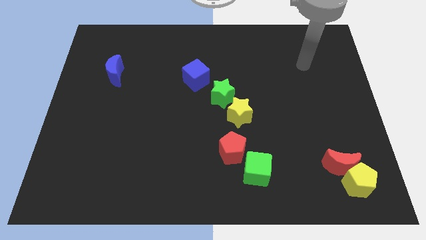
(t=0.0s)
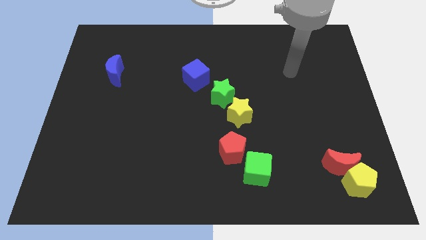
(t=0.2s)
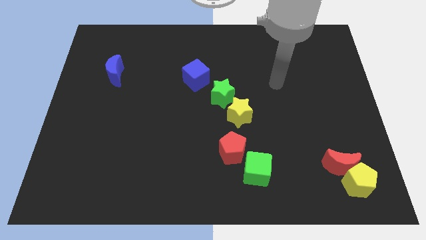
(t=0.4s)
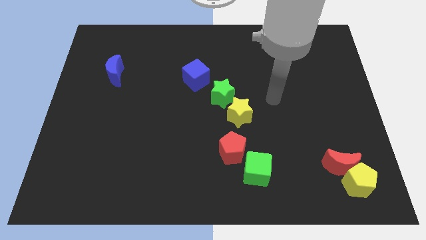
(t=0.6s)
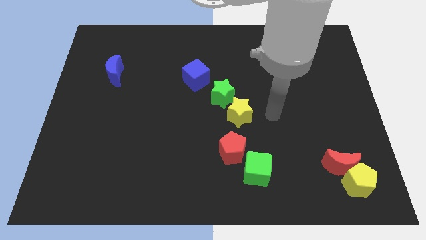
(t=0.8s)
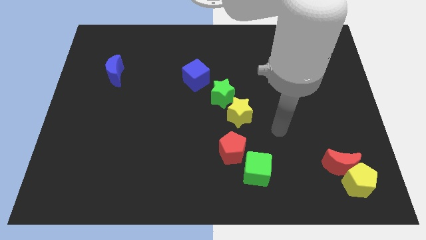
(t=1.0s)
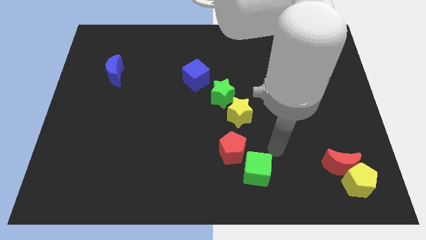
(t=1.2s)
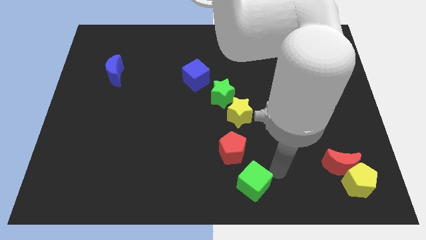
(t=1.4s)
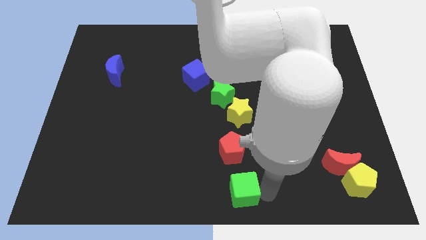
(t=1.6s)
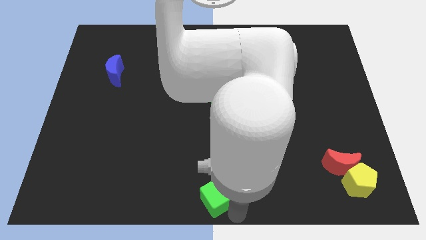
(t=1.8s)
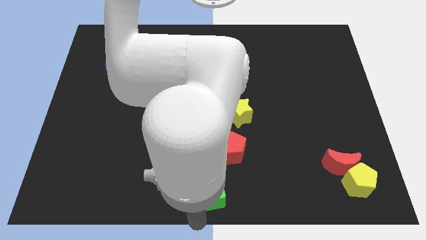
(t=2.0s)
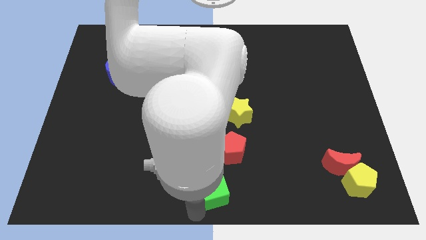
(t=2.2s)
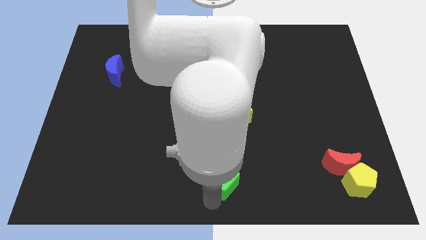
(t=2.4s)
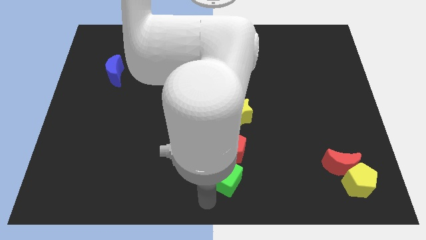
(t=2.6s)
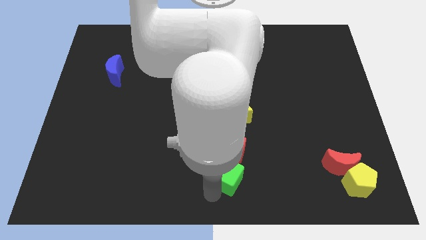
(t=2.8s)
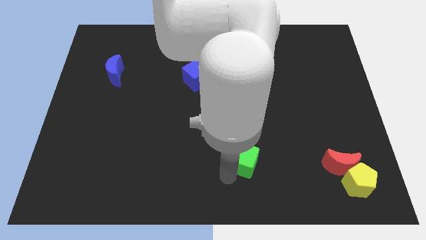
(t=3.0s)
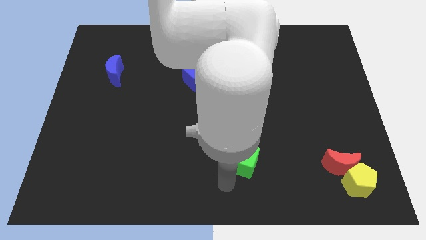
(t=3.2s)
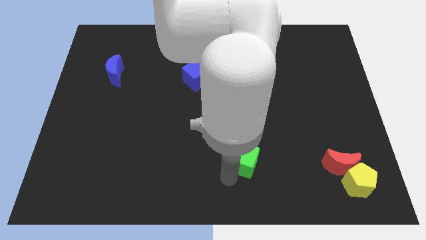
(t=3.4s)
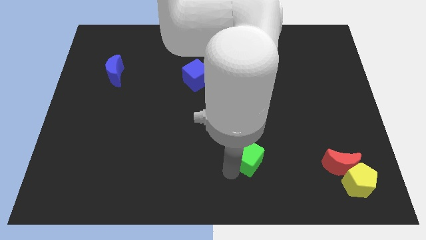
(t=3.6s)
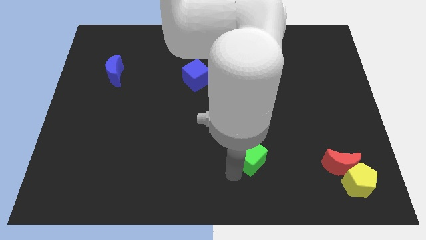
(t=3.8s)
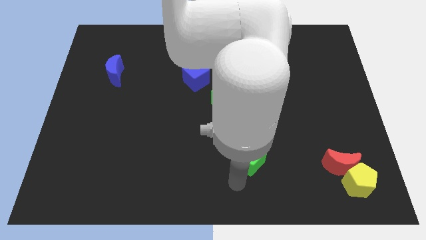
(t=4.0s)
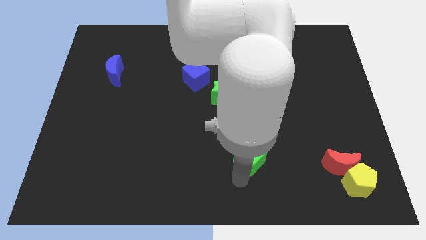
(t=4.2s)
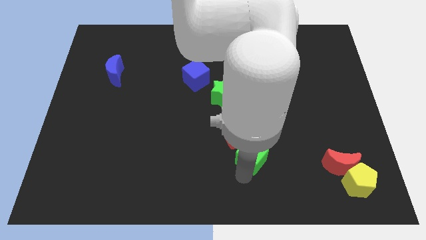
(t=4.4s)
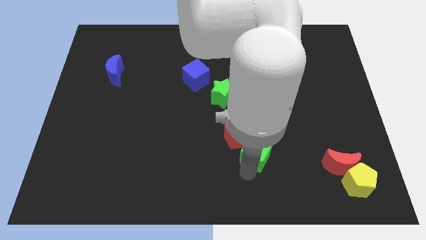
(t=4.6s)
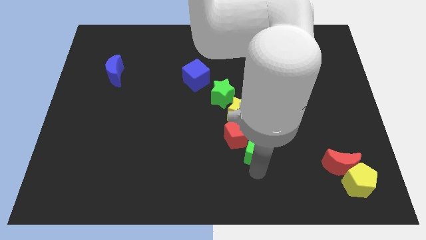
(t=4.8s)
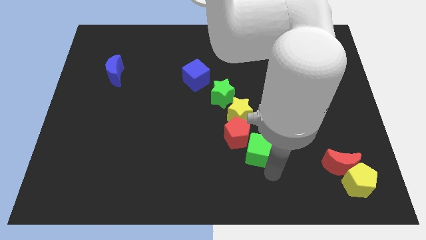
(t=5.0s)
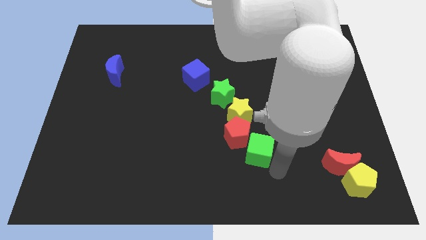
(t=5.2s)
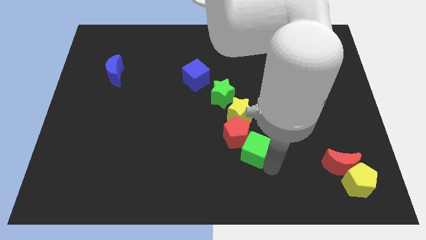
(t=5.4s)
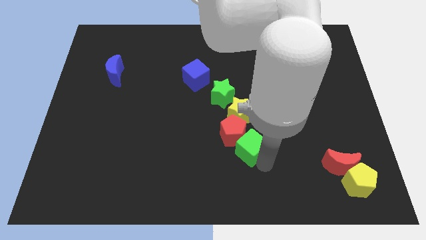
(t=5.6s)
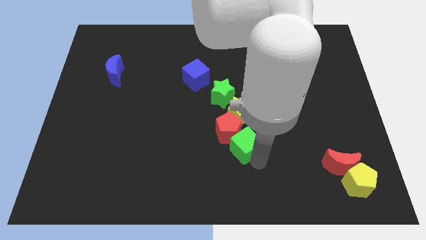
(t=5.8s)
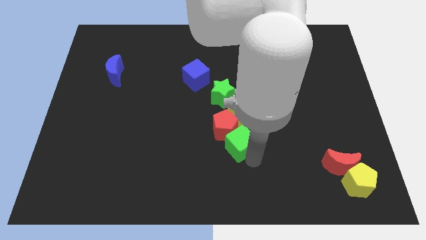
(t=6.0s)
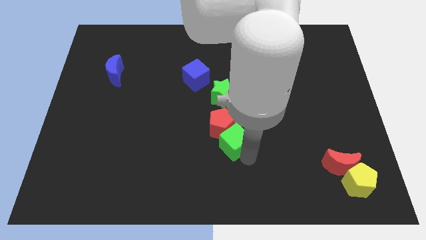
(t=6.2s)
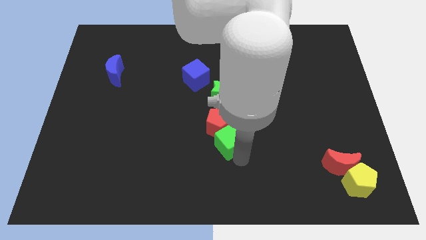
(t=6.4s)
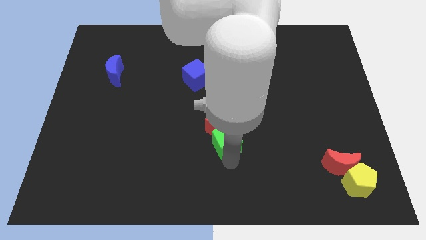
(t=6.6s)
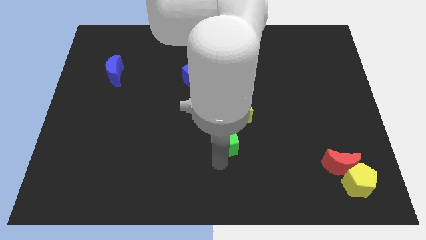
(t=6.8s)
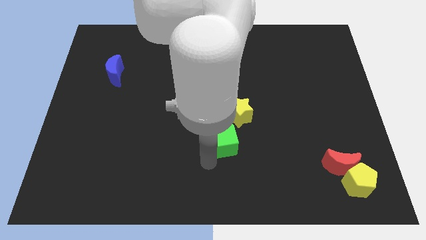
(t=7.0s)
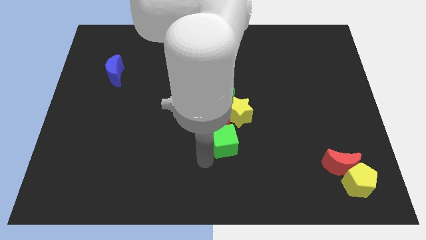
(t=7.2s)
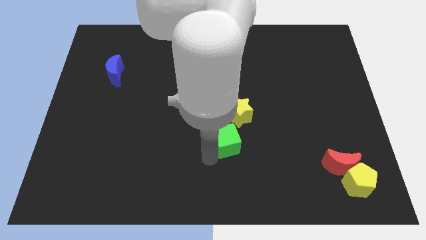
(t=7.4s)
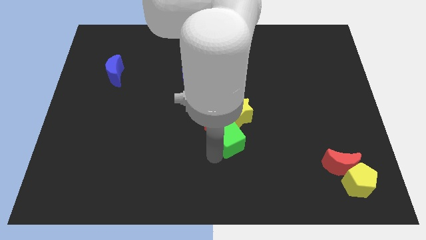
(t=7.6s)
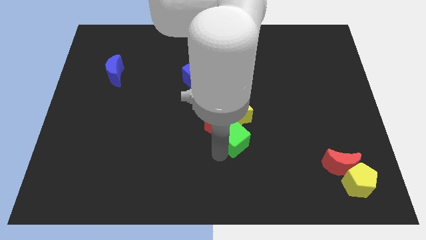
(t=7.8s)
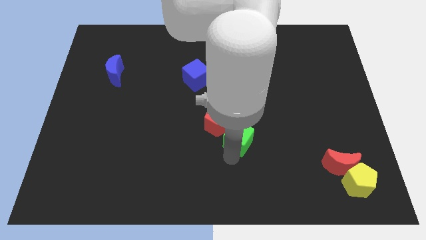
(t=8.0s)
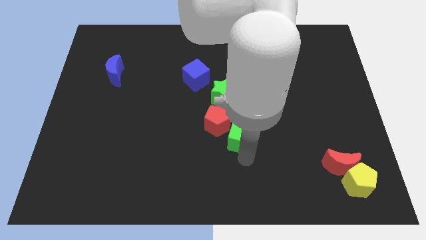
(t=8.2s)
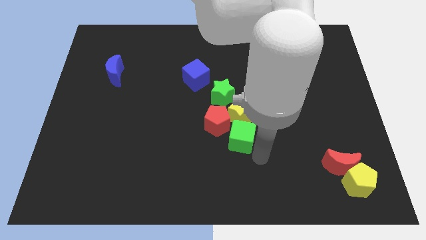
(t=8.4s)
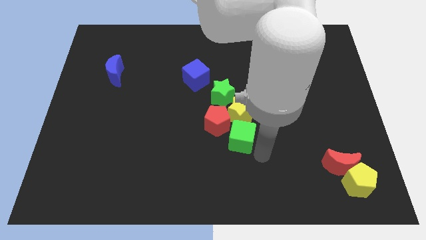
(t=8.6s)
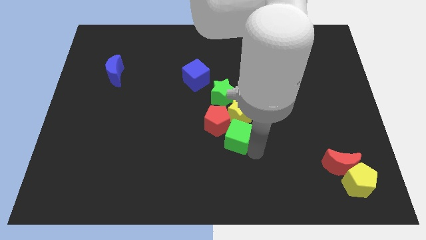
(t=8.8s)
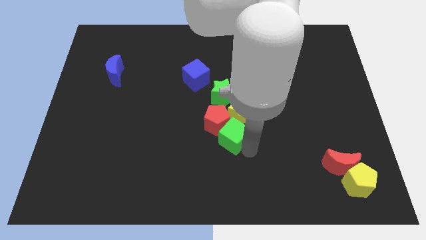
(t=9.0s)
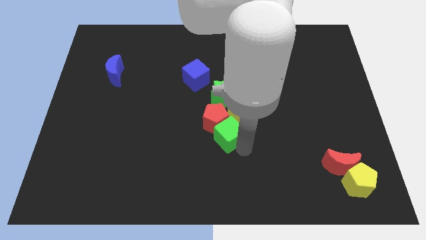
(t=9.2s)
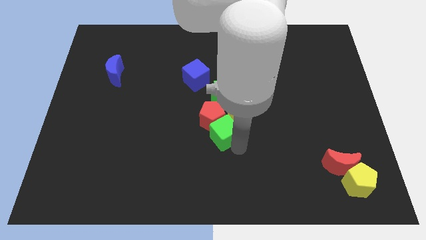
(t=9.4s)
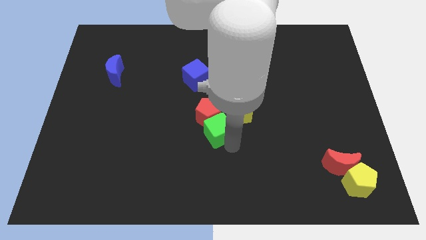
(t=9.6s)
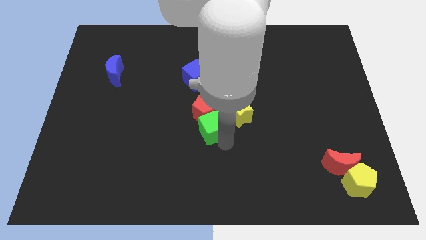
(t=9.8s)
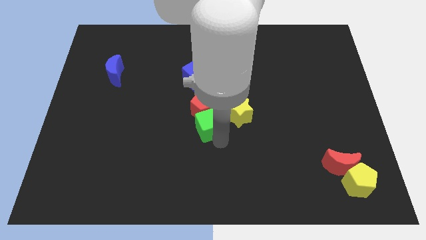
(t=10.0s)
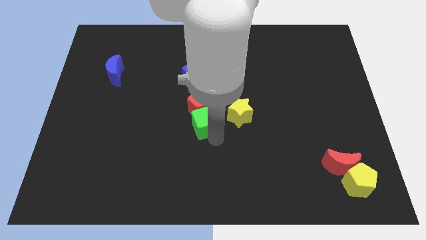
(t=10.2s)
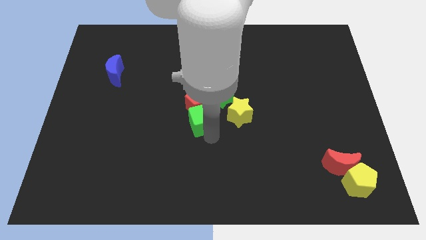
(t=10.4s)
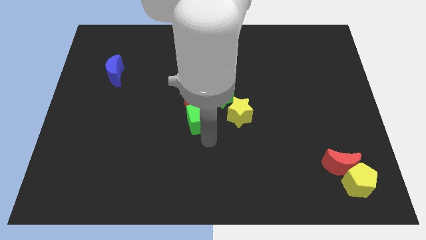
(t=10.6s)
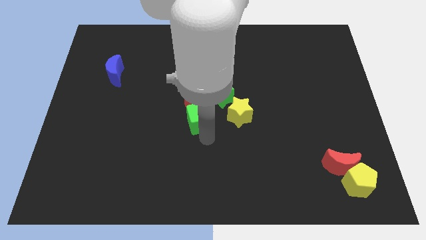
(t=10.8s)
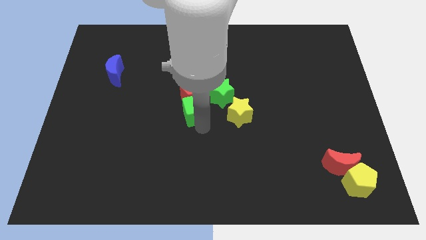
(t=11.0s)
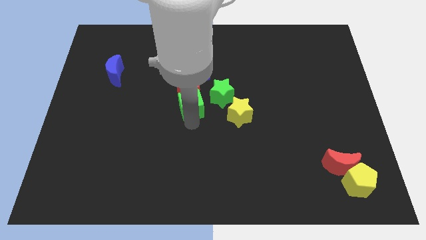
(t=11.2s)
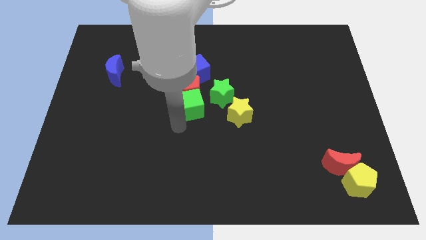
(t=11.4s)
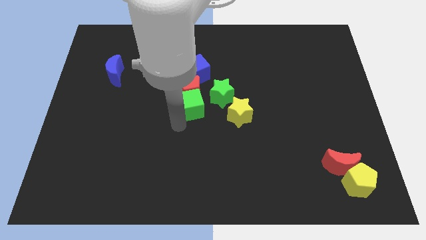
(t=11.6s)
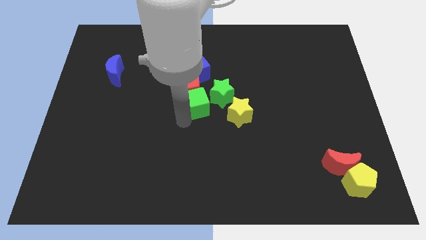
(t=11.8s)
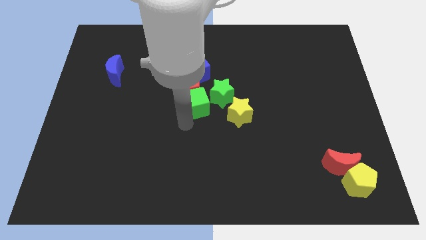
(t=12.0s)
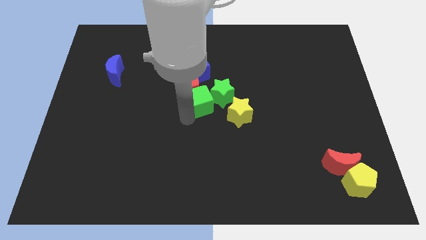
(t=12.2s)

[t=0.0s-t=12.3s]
move the green cube to the top left side of the yellow star

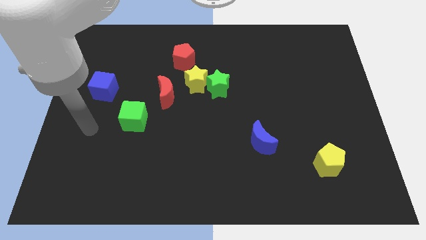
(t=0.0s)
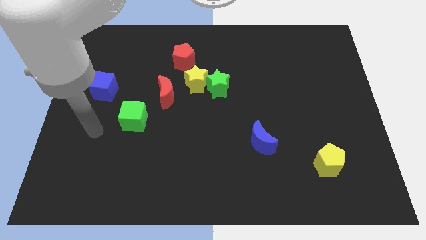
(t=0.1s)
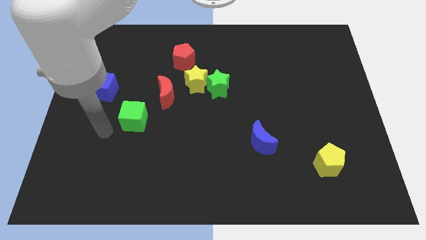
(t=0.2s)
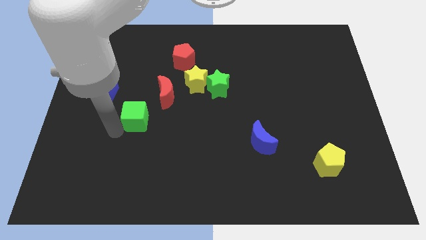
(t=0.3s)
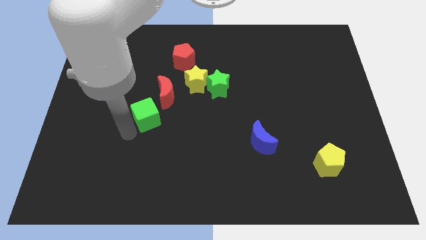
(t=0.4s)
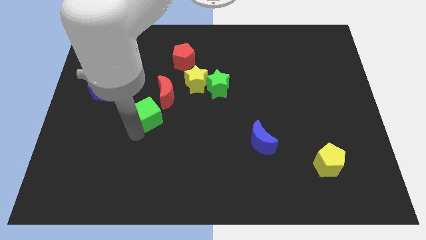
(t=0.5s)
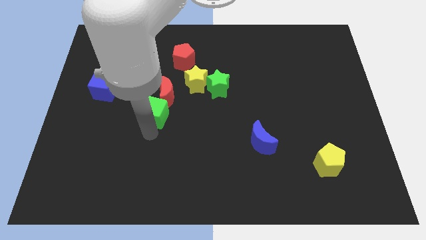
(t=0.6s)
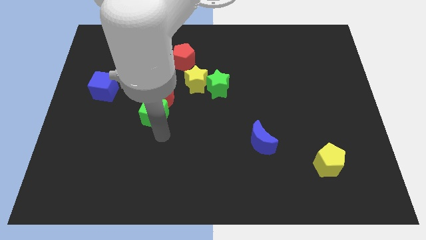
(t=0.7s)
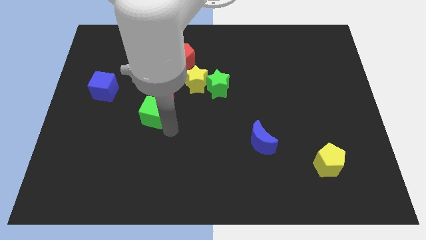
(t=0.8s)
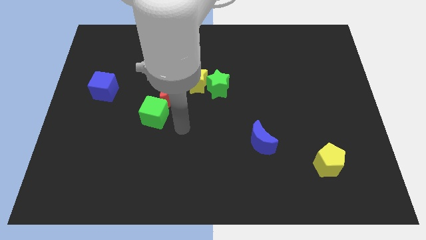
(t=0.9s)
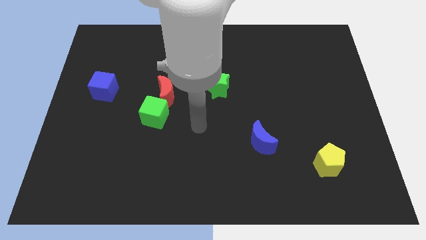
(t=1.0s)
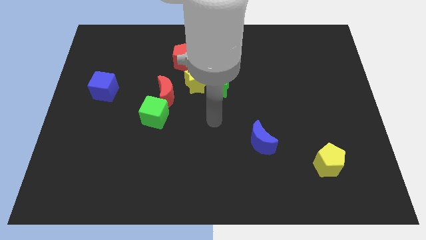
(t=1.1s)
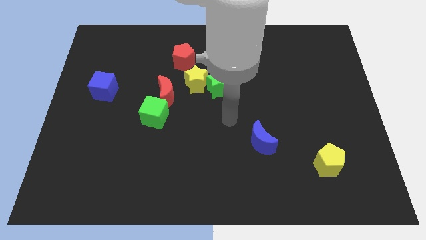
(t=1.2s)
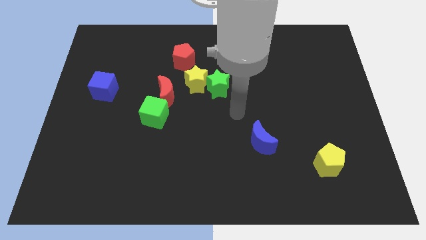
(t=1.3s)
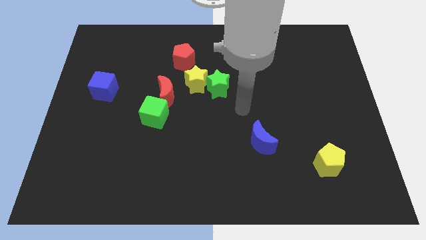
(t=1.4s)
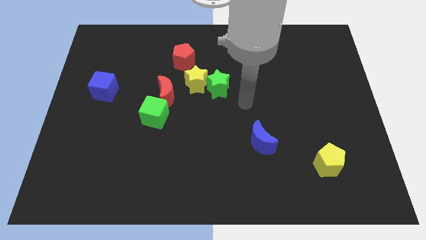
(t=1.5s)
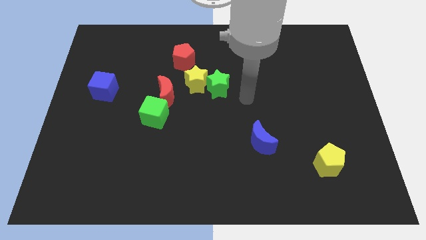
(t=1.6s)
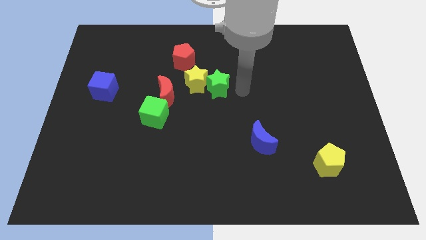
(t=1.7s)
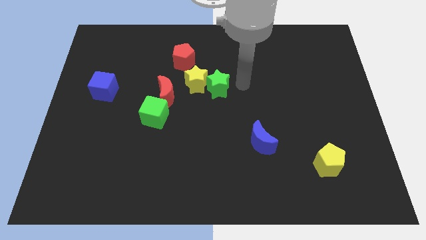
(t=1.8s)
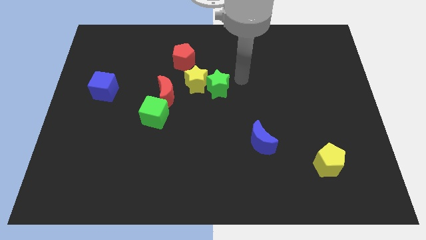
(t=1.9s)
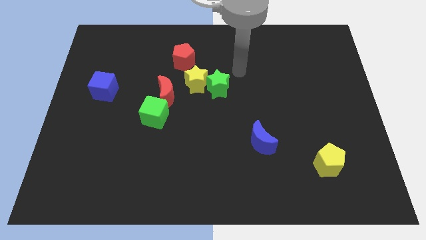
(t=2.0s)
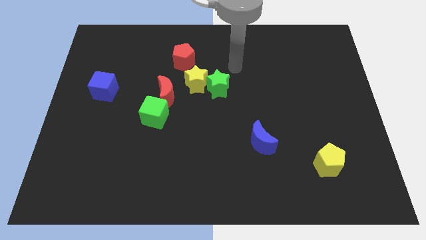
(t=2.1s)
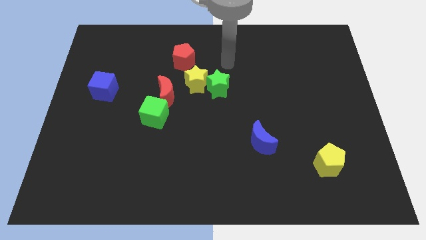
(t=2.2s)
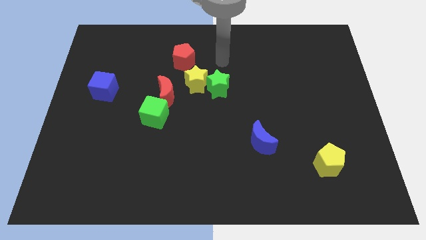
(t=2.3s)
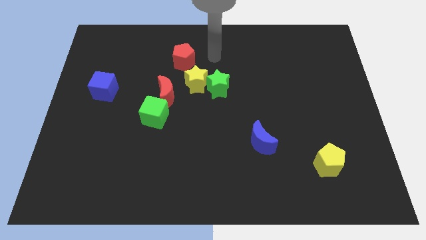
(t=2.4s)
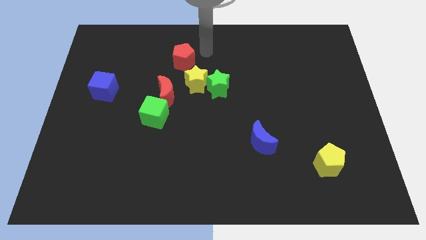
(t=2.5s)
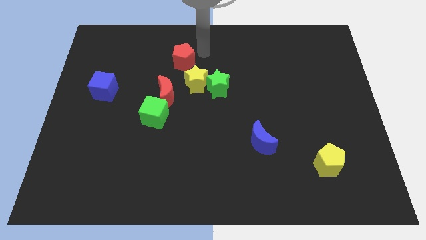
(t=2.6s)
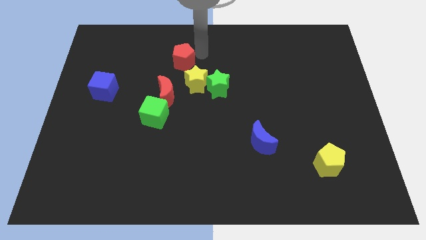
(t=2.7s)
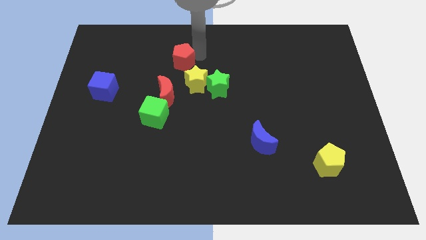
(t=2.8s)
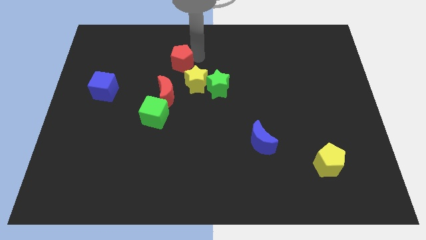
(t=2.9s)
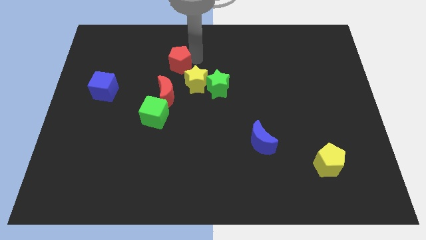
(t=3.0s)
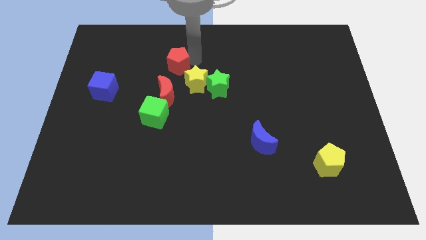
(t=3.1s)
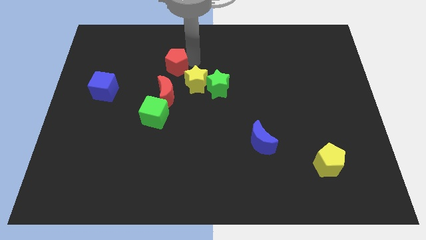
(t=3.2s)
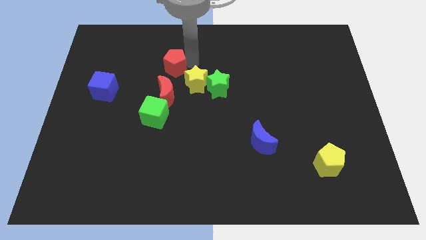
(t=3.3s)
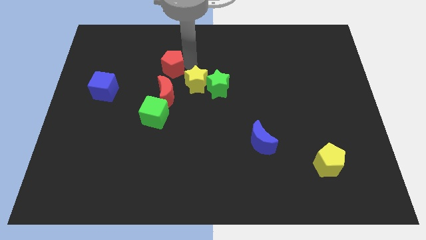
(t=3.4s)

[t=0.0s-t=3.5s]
push the red pentagon left of the yellow star
